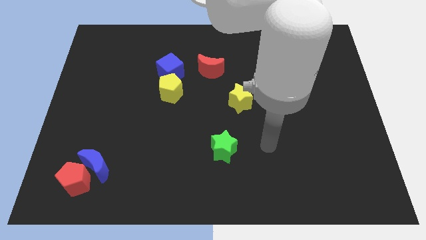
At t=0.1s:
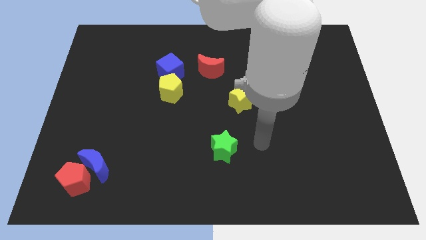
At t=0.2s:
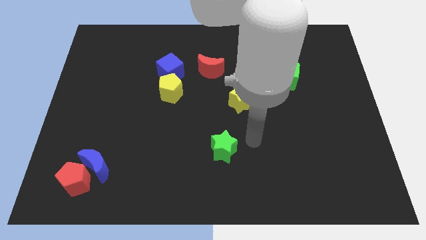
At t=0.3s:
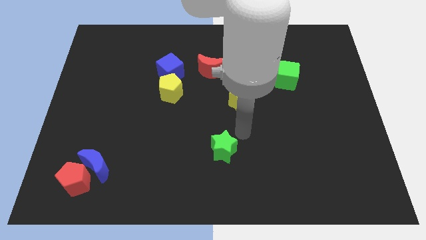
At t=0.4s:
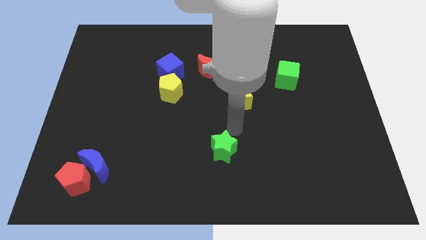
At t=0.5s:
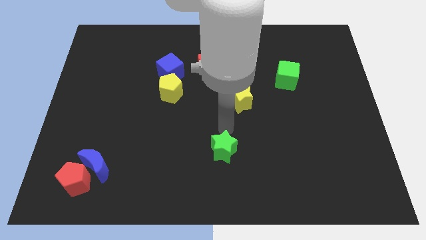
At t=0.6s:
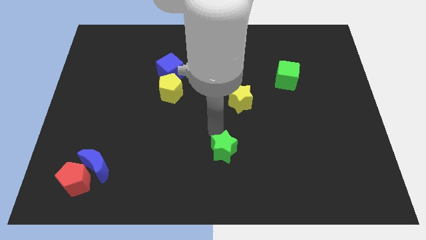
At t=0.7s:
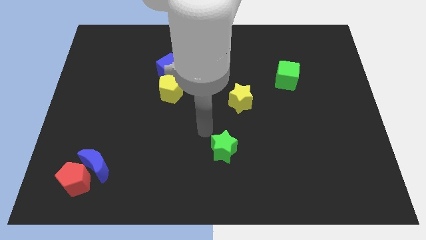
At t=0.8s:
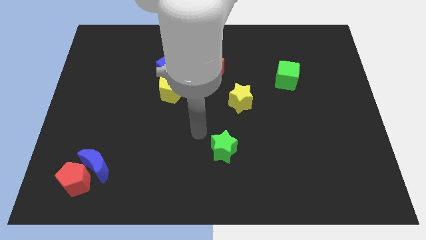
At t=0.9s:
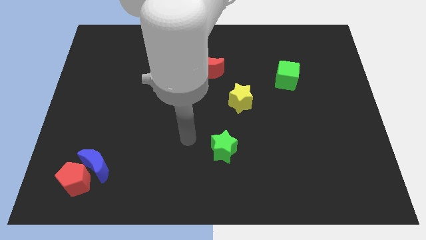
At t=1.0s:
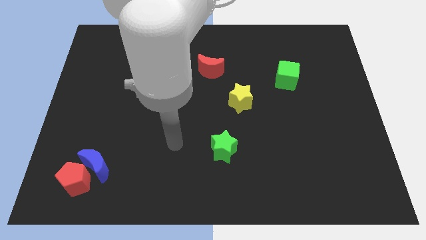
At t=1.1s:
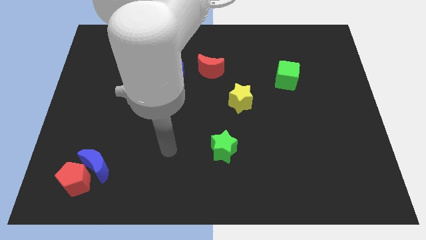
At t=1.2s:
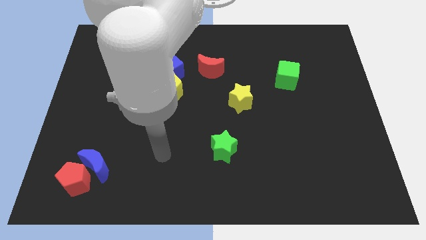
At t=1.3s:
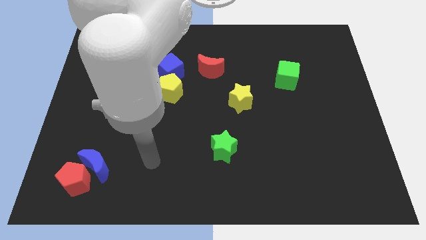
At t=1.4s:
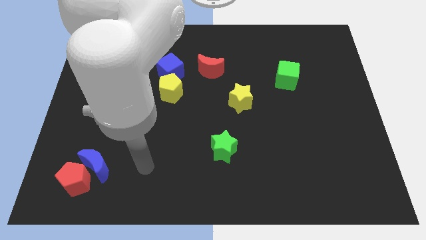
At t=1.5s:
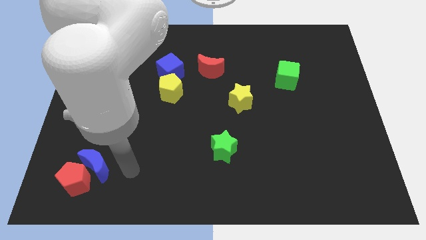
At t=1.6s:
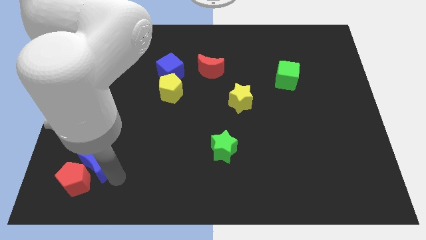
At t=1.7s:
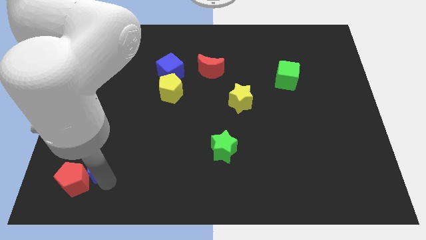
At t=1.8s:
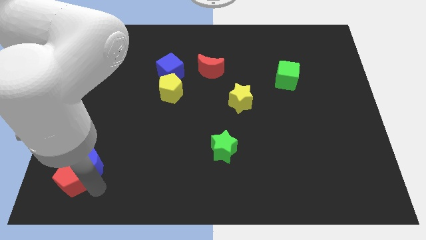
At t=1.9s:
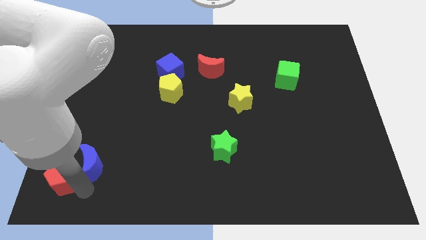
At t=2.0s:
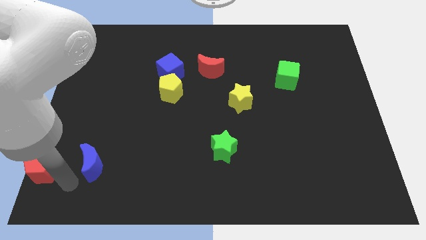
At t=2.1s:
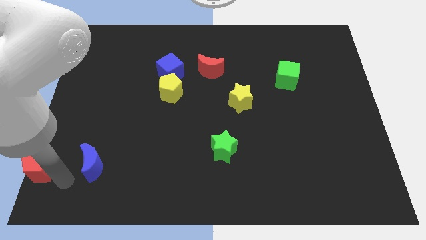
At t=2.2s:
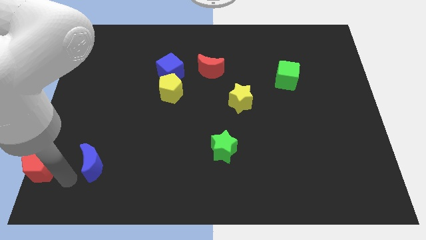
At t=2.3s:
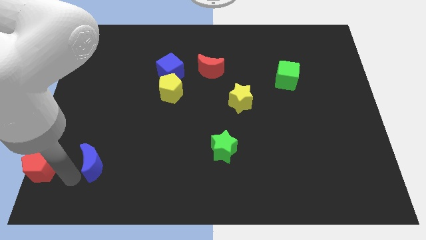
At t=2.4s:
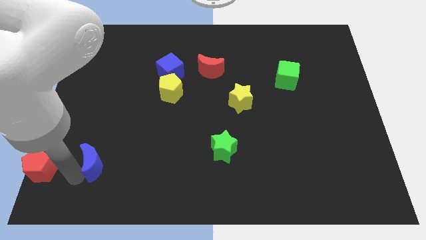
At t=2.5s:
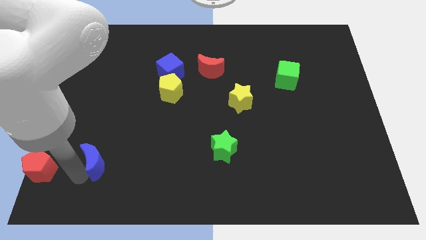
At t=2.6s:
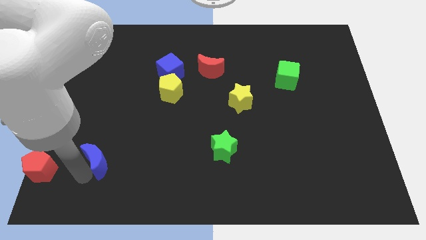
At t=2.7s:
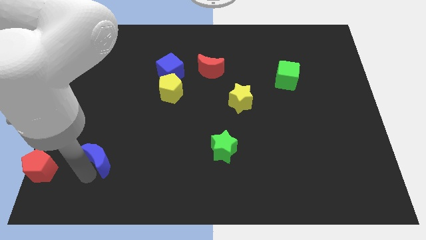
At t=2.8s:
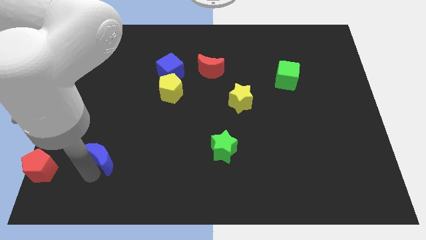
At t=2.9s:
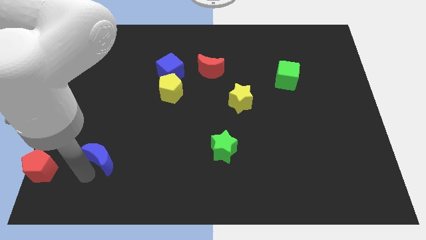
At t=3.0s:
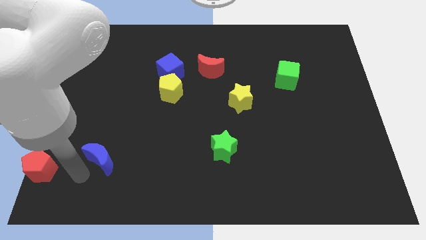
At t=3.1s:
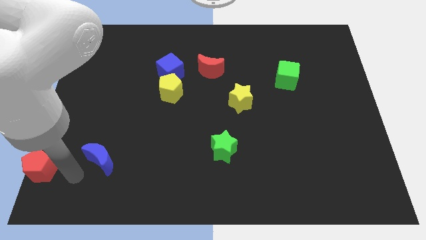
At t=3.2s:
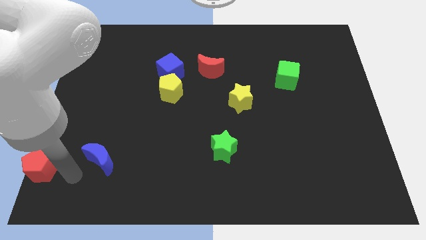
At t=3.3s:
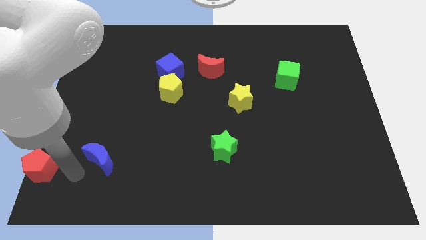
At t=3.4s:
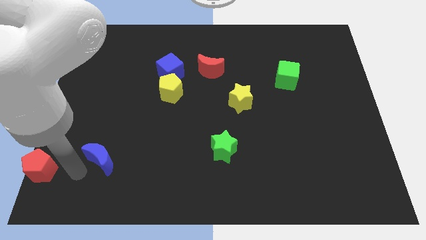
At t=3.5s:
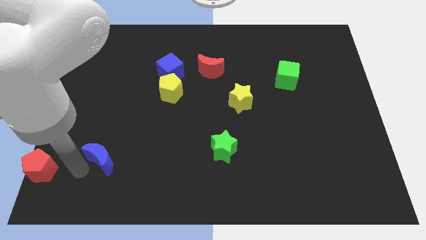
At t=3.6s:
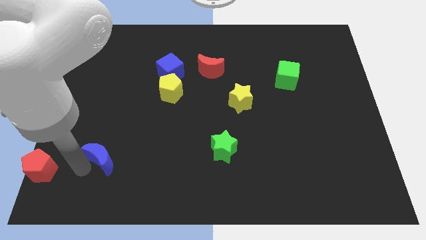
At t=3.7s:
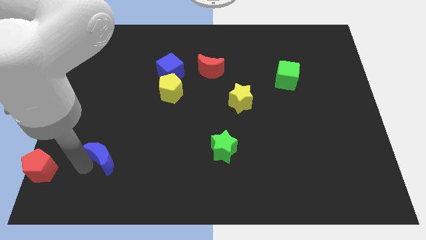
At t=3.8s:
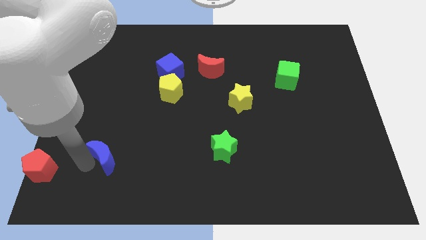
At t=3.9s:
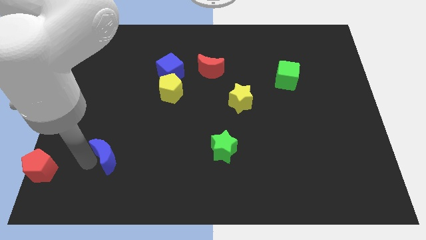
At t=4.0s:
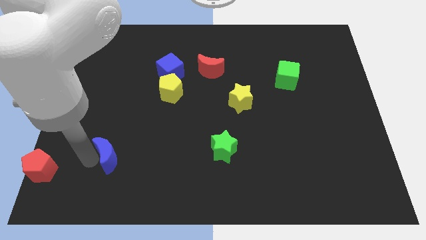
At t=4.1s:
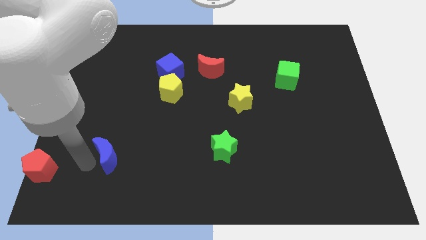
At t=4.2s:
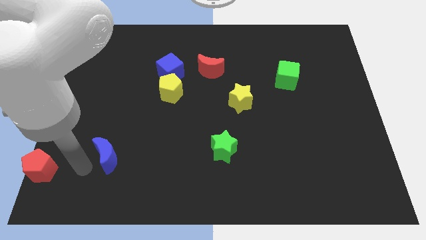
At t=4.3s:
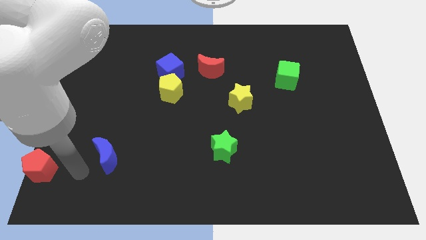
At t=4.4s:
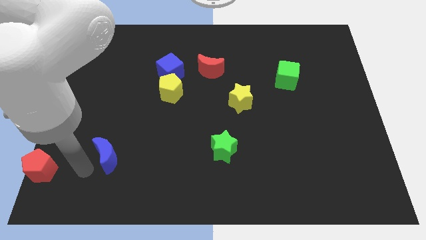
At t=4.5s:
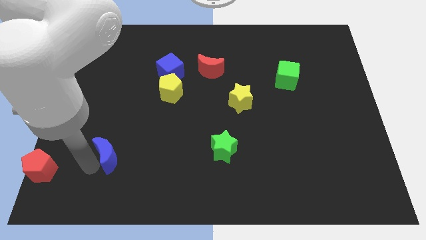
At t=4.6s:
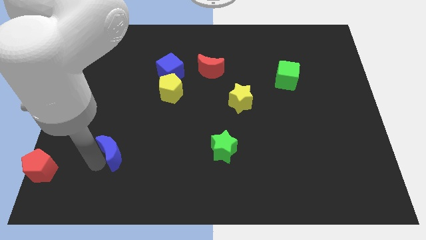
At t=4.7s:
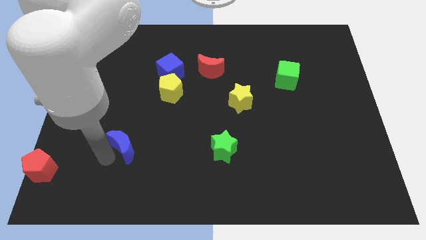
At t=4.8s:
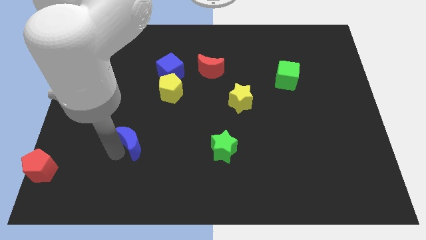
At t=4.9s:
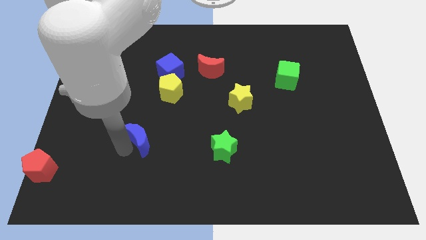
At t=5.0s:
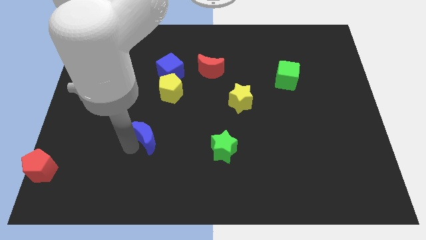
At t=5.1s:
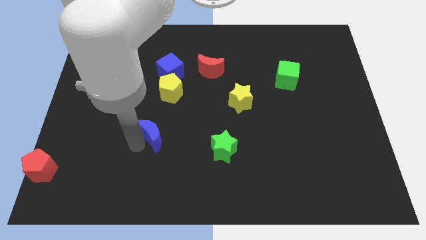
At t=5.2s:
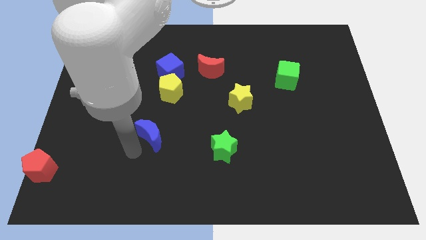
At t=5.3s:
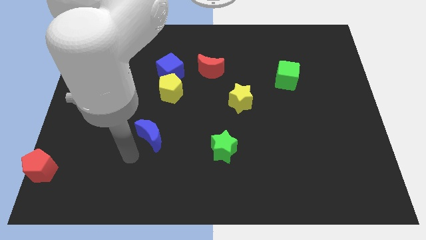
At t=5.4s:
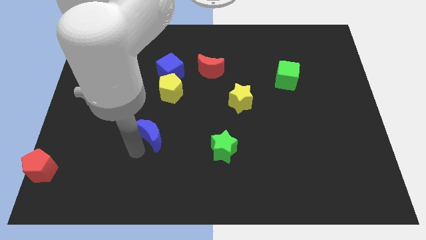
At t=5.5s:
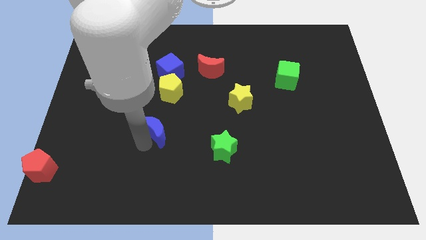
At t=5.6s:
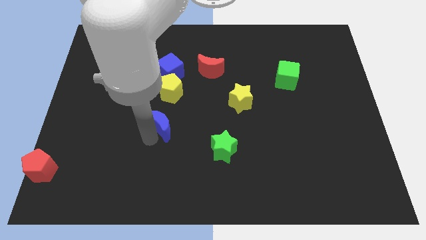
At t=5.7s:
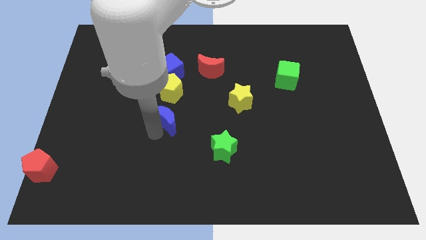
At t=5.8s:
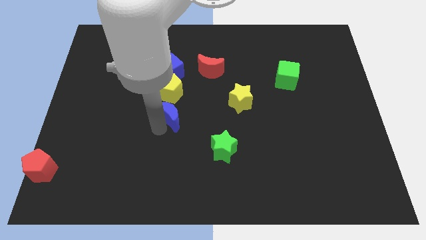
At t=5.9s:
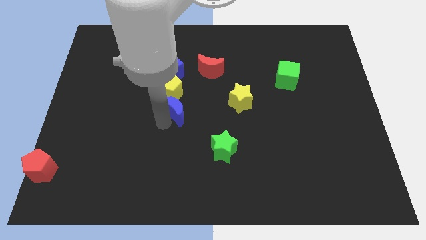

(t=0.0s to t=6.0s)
put the blue moon just left of the yellow star

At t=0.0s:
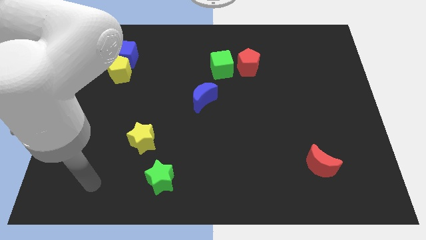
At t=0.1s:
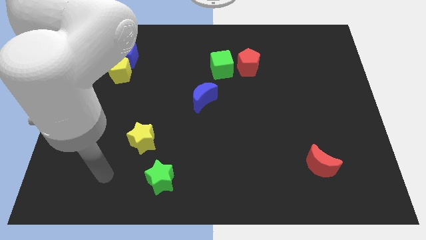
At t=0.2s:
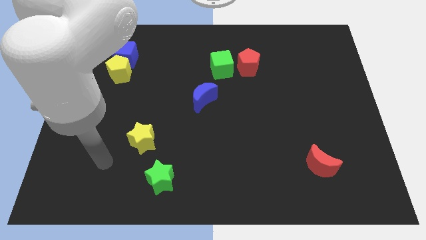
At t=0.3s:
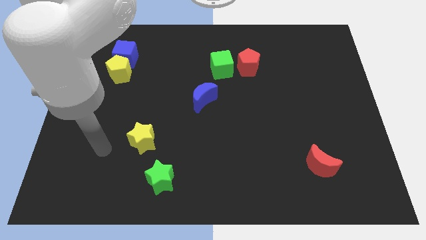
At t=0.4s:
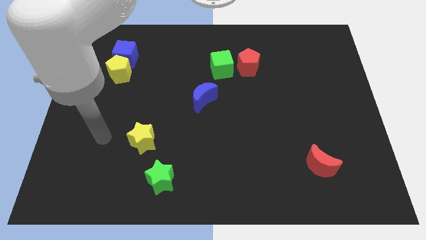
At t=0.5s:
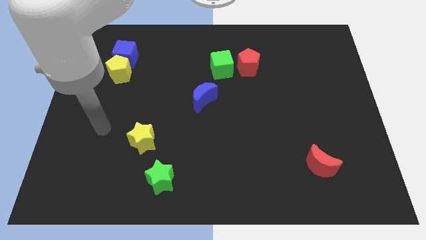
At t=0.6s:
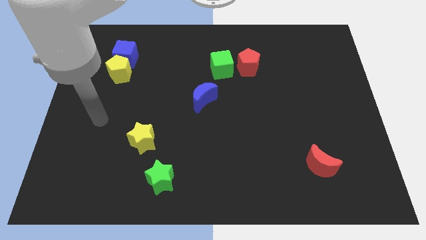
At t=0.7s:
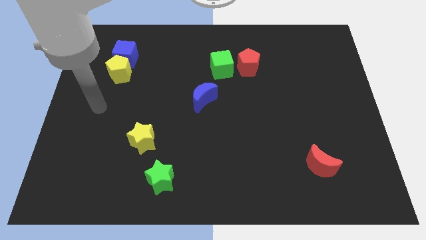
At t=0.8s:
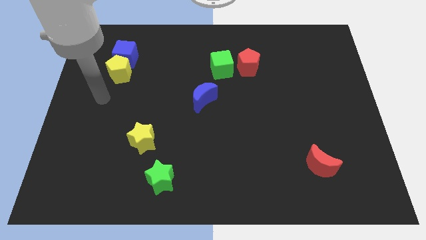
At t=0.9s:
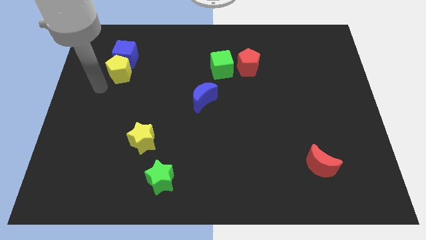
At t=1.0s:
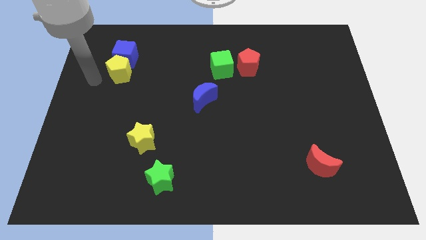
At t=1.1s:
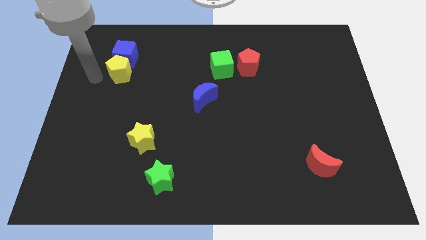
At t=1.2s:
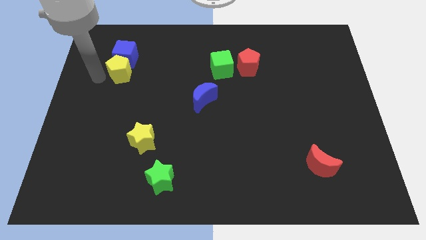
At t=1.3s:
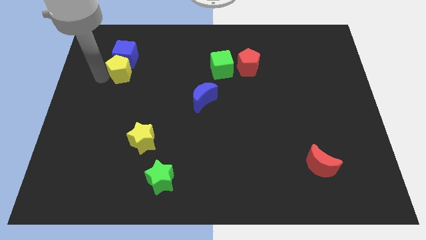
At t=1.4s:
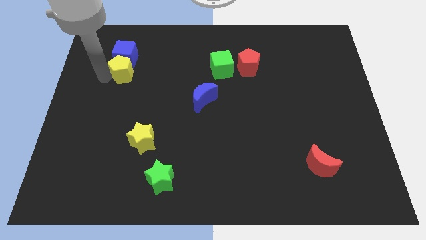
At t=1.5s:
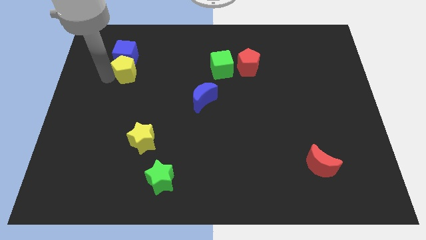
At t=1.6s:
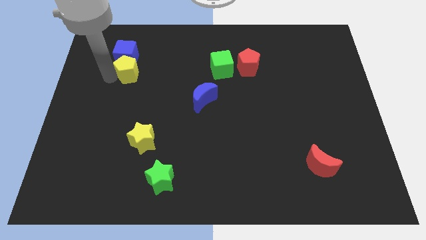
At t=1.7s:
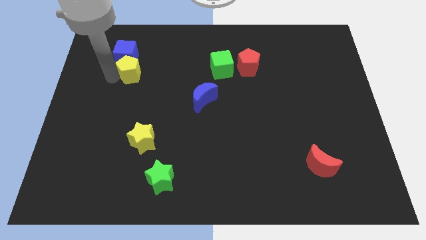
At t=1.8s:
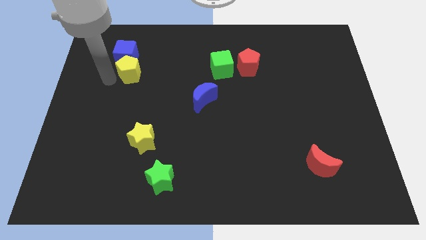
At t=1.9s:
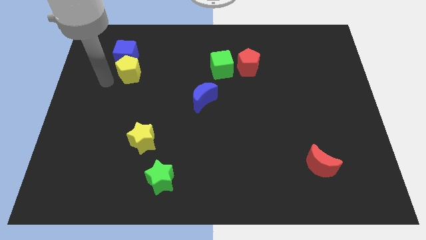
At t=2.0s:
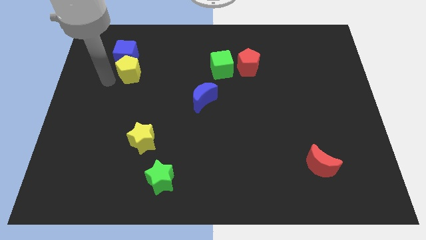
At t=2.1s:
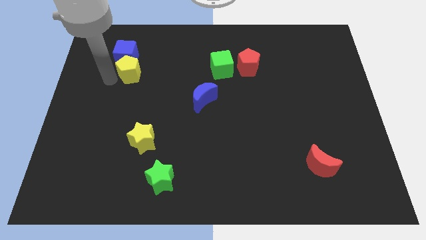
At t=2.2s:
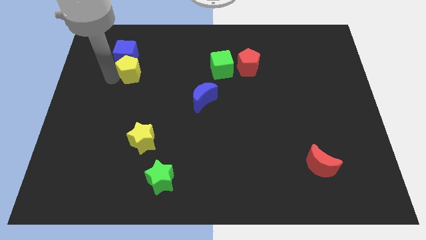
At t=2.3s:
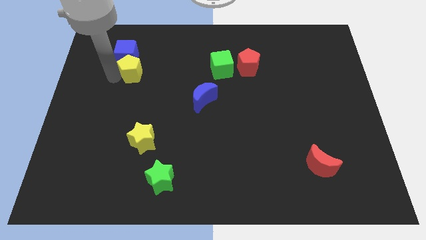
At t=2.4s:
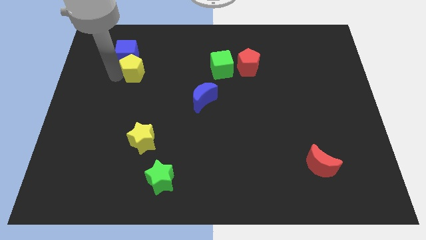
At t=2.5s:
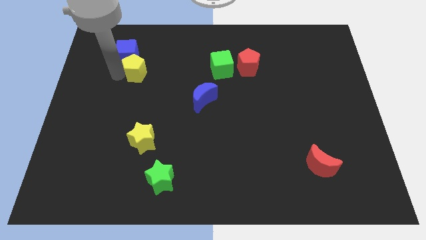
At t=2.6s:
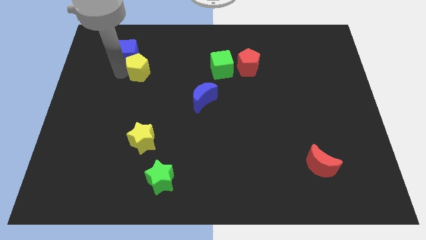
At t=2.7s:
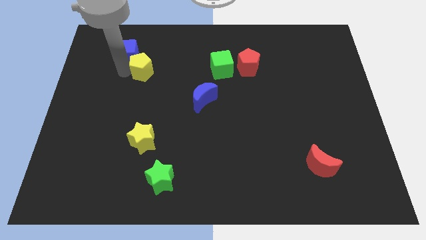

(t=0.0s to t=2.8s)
put the yellow pentagon to the right of the blue cube
